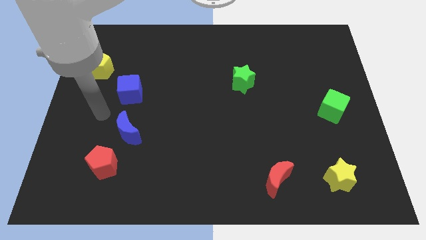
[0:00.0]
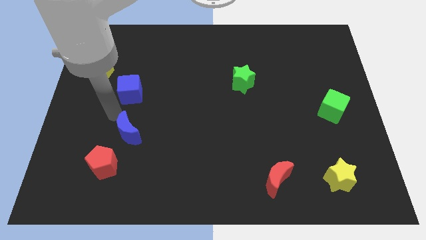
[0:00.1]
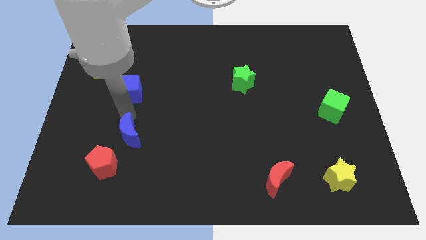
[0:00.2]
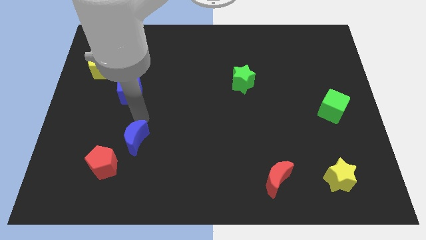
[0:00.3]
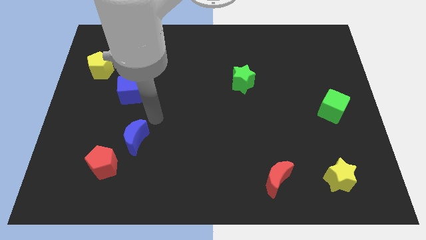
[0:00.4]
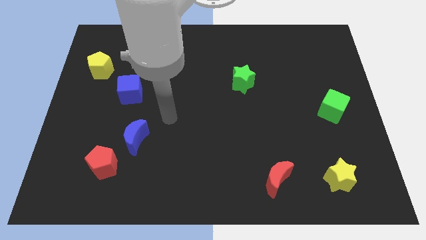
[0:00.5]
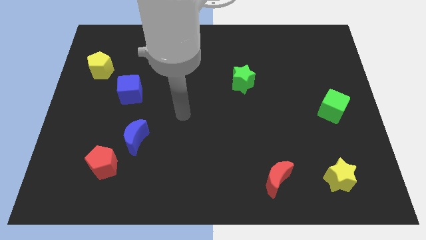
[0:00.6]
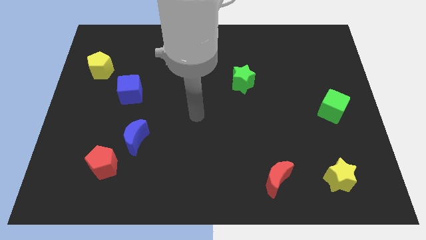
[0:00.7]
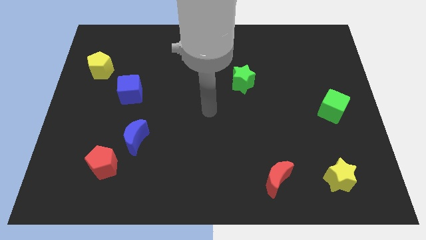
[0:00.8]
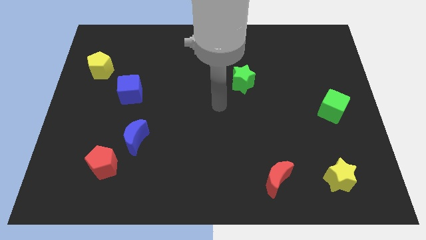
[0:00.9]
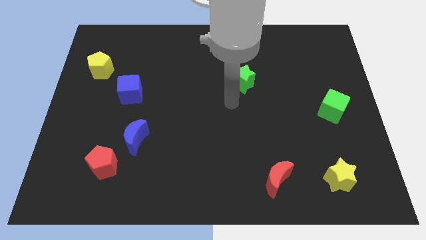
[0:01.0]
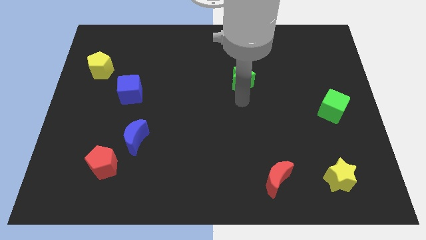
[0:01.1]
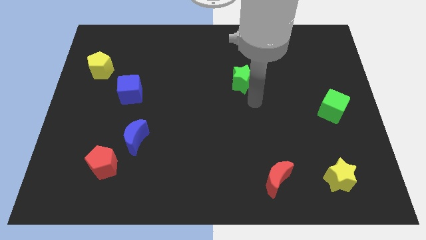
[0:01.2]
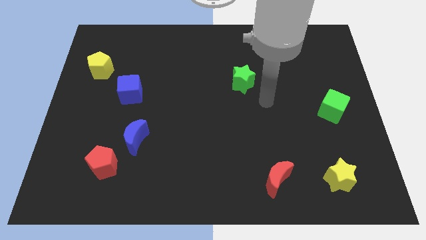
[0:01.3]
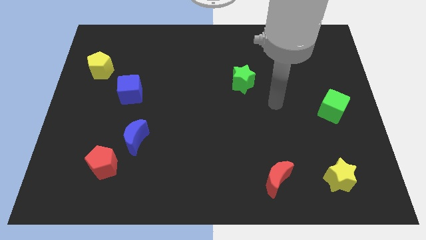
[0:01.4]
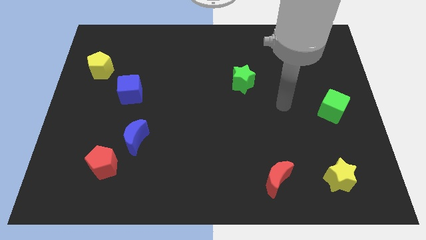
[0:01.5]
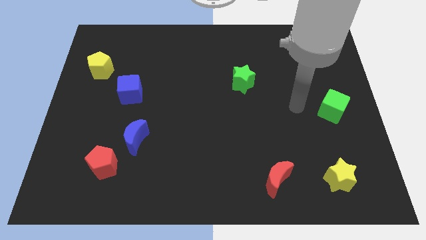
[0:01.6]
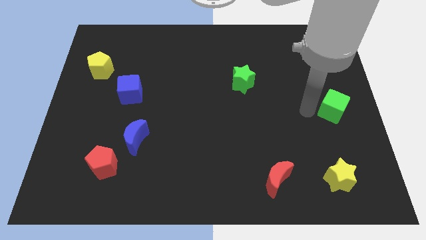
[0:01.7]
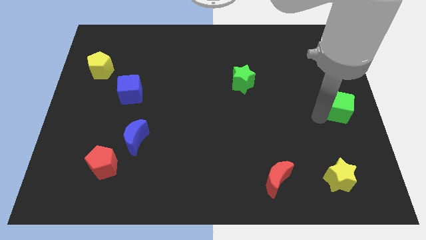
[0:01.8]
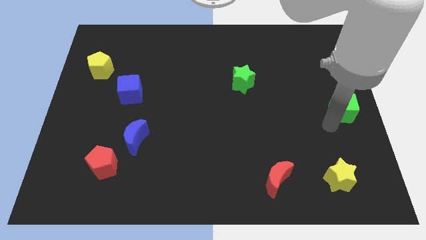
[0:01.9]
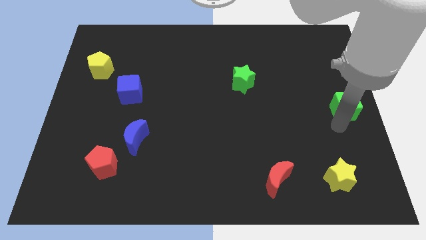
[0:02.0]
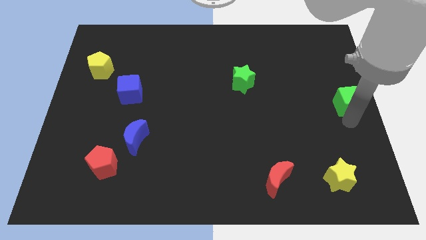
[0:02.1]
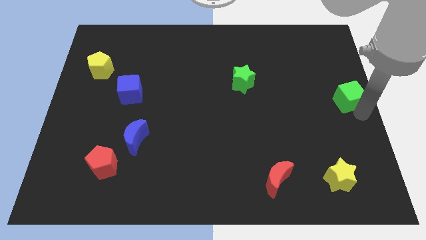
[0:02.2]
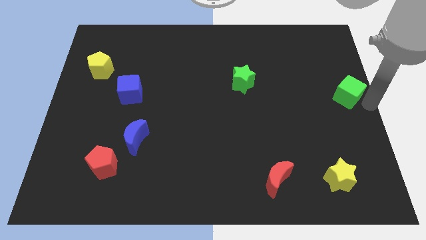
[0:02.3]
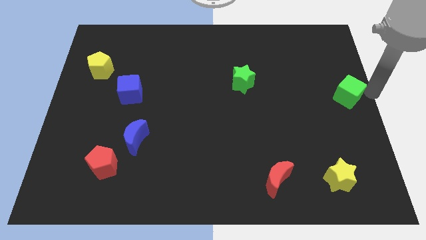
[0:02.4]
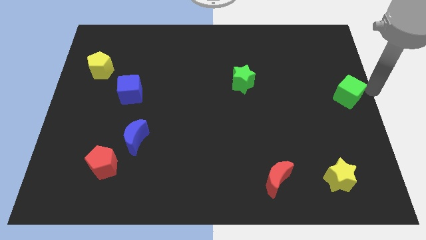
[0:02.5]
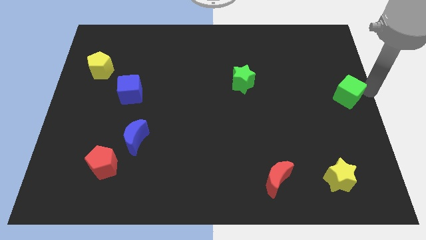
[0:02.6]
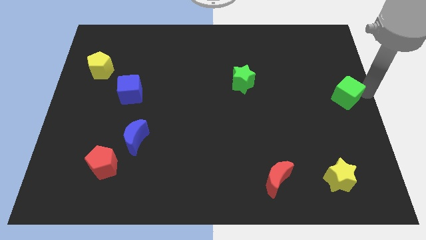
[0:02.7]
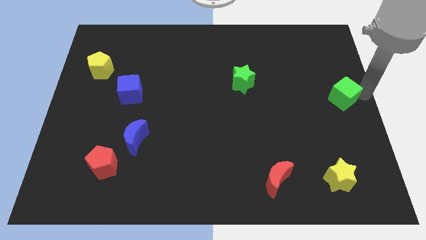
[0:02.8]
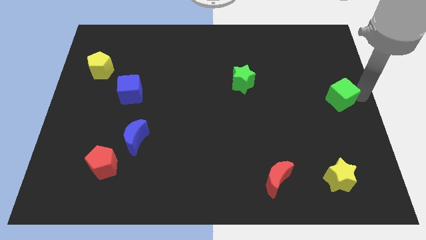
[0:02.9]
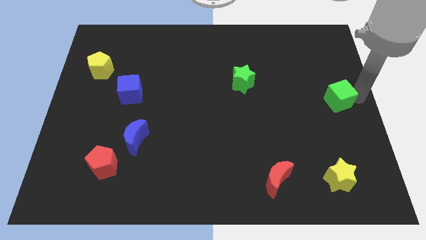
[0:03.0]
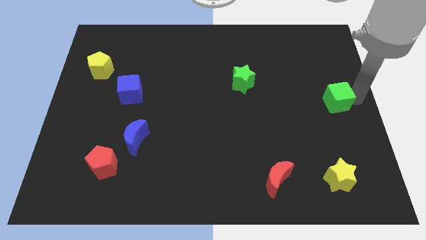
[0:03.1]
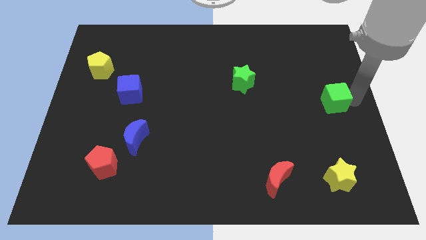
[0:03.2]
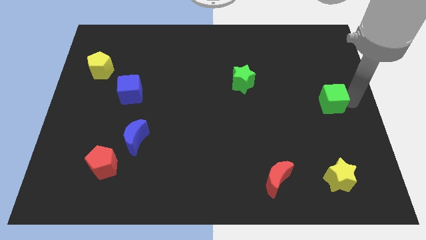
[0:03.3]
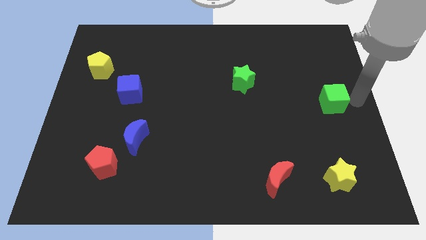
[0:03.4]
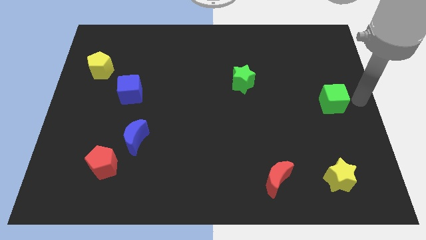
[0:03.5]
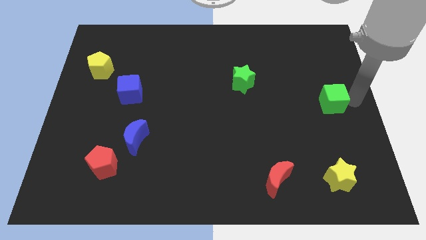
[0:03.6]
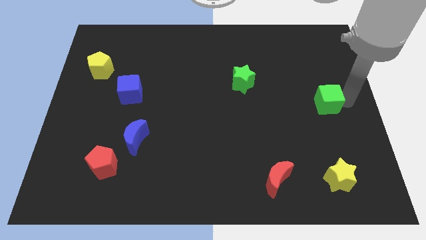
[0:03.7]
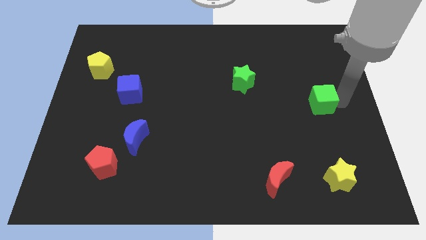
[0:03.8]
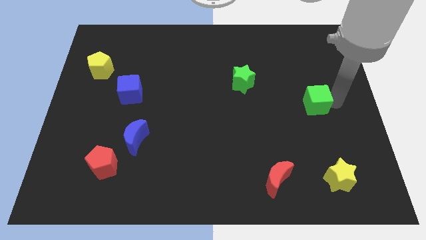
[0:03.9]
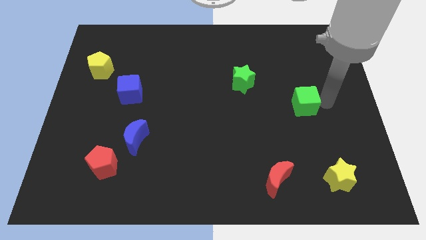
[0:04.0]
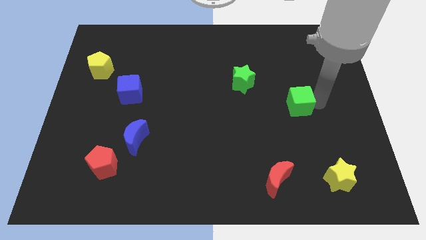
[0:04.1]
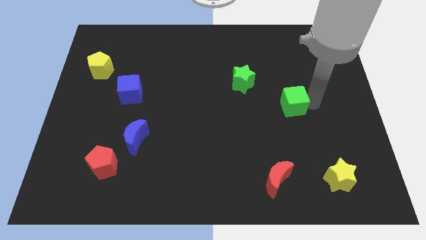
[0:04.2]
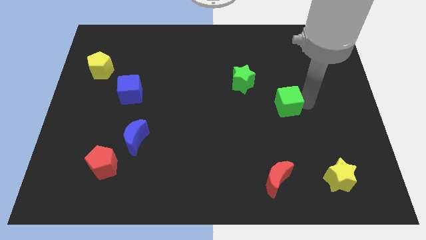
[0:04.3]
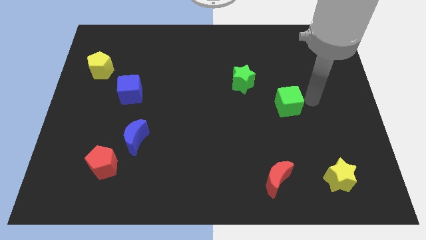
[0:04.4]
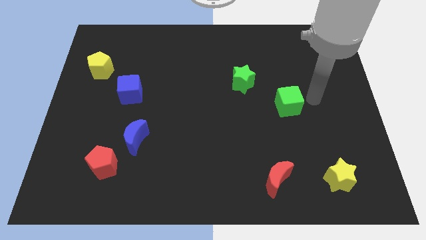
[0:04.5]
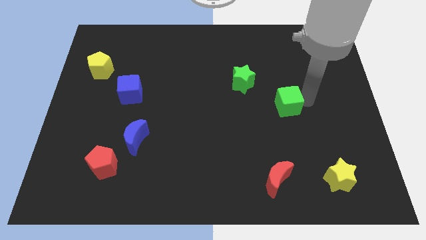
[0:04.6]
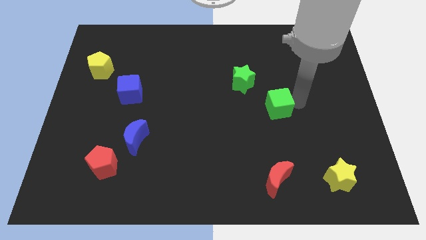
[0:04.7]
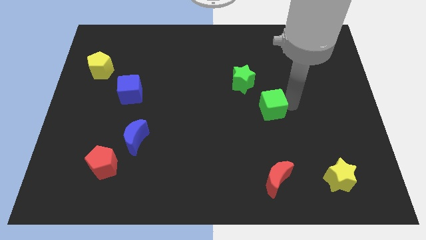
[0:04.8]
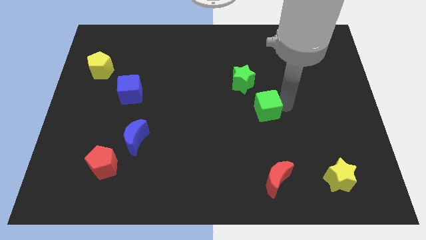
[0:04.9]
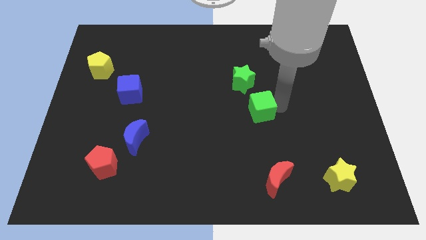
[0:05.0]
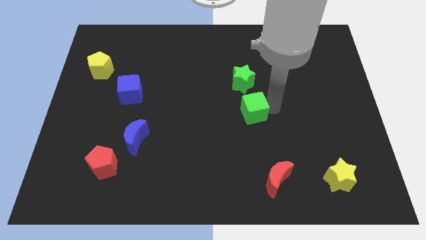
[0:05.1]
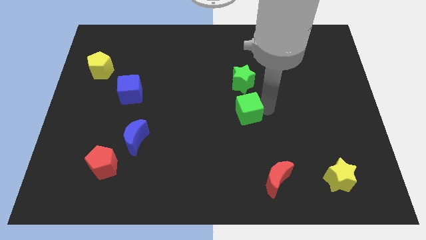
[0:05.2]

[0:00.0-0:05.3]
move the green cube left

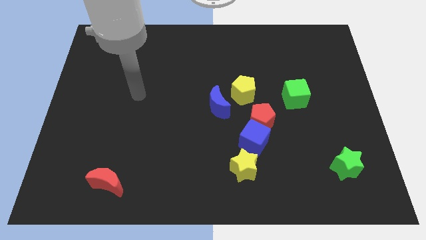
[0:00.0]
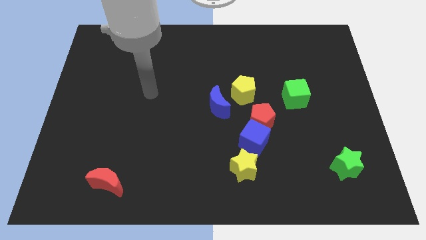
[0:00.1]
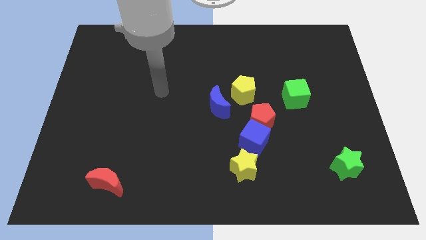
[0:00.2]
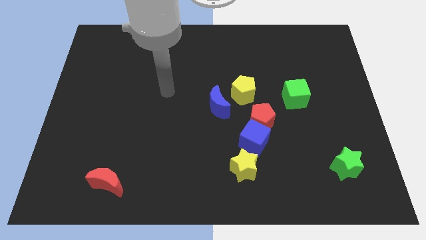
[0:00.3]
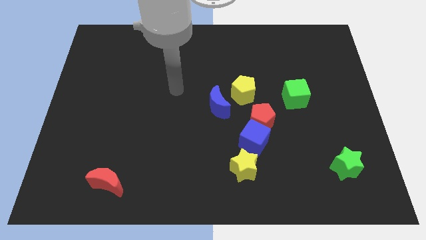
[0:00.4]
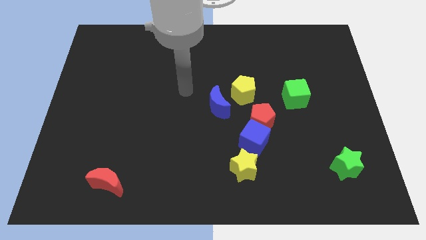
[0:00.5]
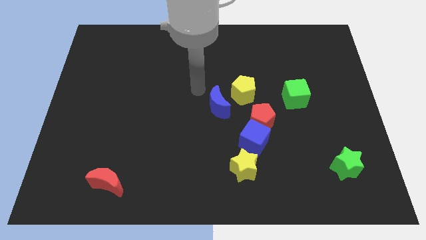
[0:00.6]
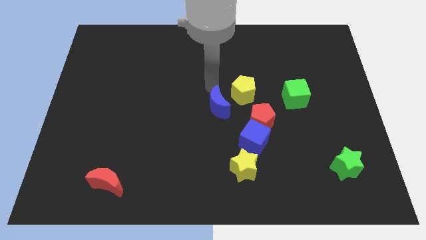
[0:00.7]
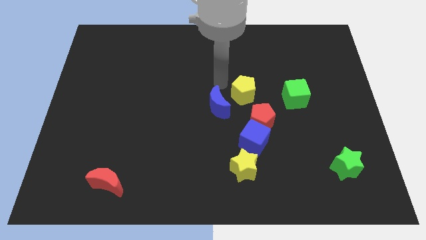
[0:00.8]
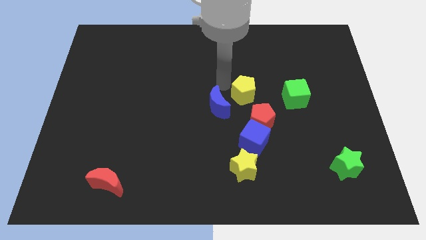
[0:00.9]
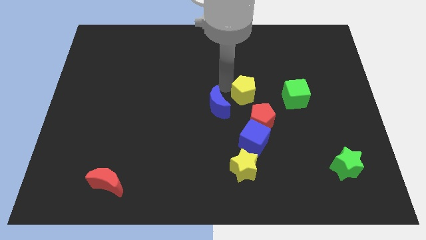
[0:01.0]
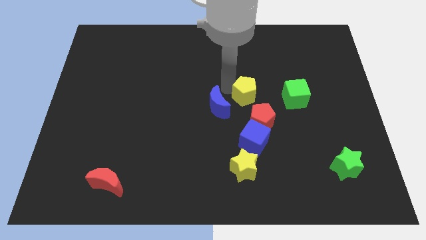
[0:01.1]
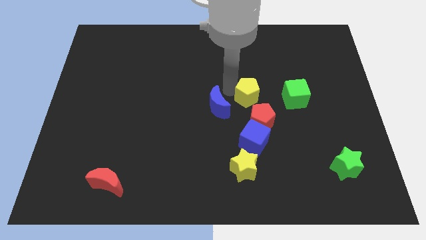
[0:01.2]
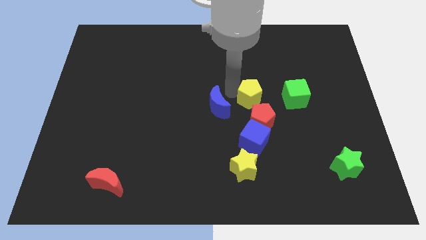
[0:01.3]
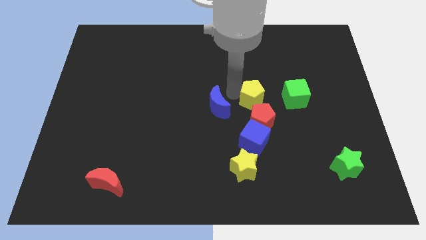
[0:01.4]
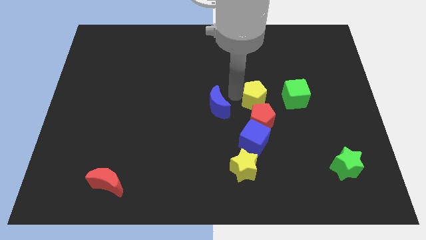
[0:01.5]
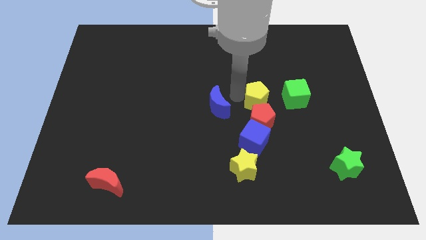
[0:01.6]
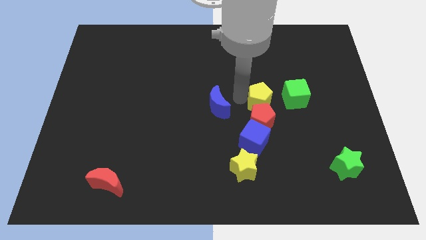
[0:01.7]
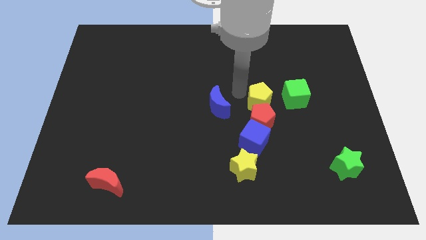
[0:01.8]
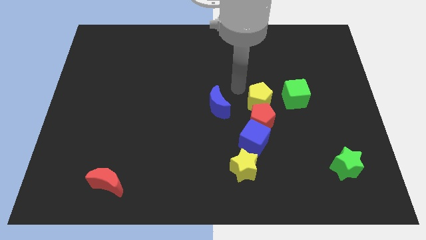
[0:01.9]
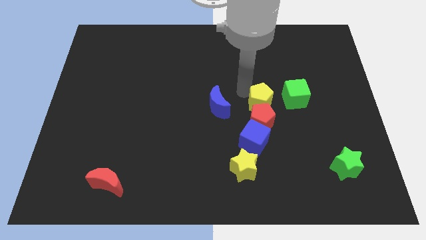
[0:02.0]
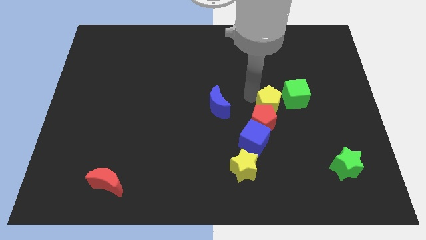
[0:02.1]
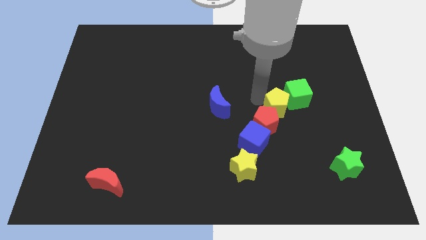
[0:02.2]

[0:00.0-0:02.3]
push the yellow pentagon down and to the right diagonally slightly

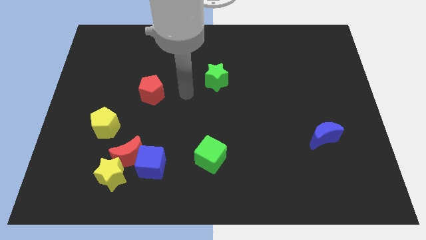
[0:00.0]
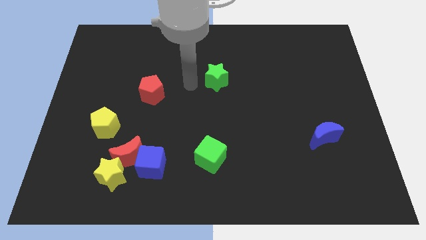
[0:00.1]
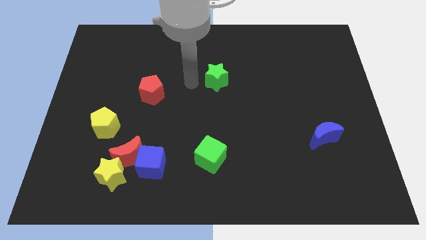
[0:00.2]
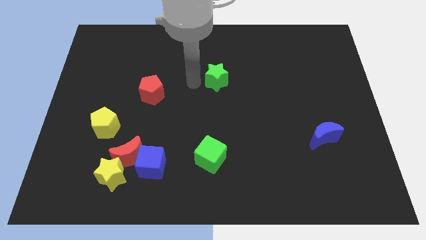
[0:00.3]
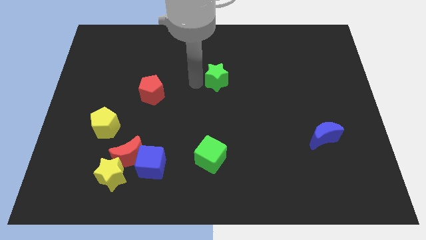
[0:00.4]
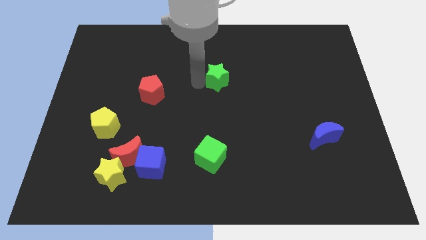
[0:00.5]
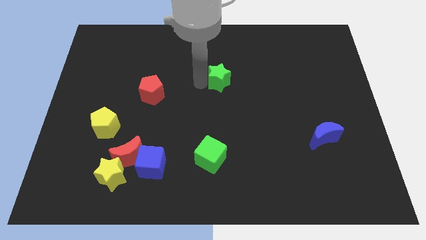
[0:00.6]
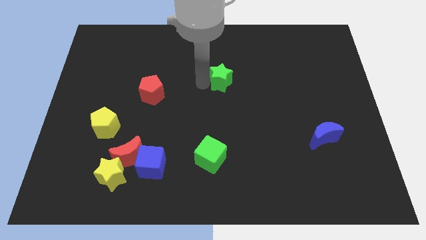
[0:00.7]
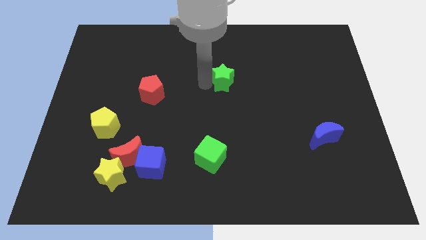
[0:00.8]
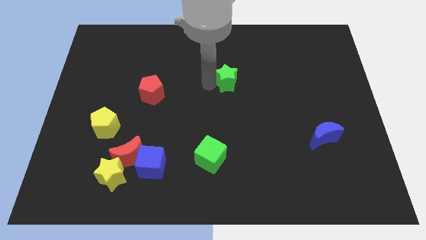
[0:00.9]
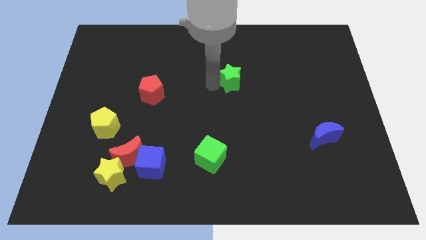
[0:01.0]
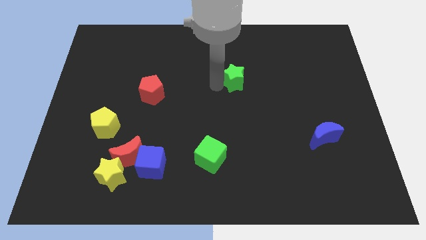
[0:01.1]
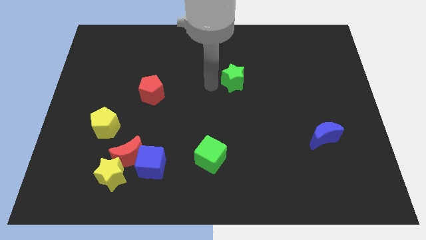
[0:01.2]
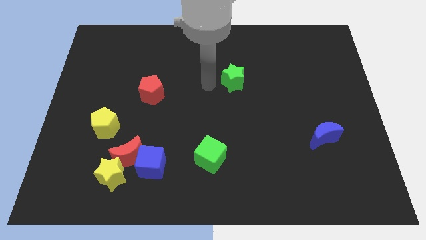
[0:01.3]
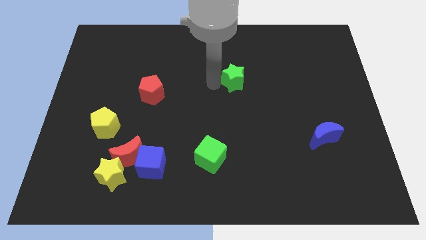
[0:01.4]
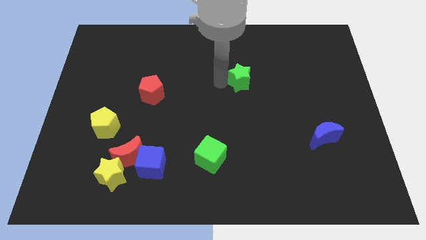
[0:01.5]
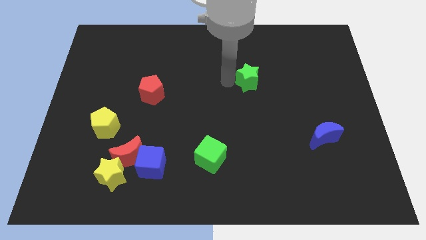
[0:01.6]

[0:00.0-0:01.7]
push the green star a little bit right
